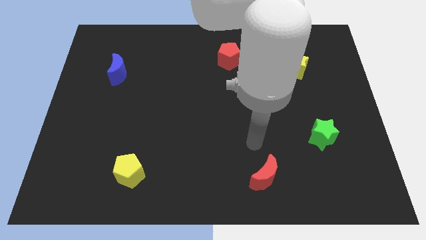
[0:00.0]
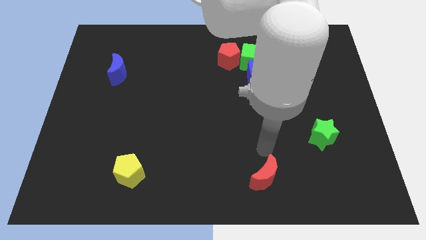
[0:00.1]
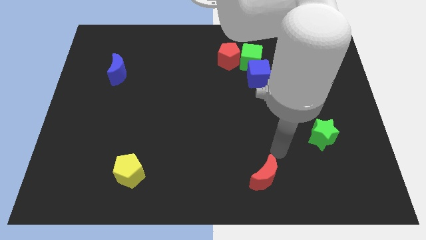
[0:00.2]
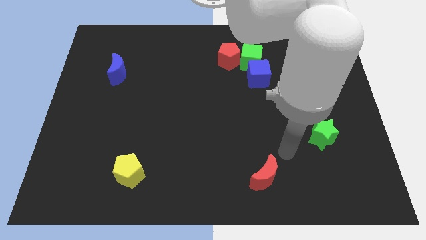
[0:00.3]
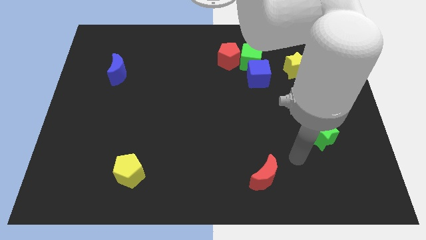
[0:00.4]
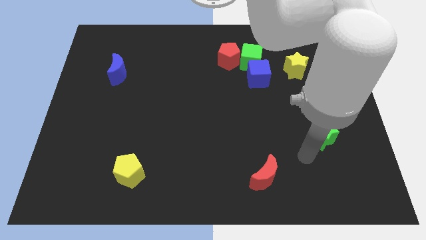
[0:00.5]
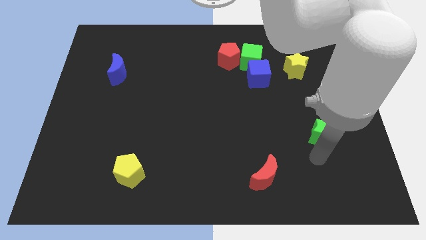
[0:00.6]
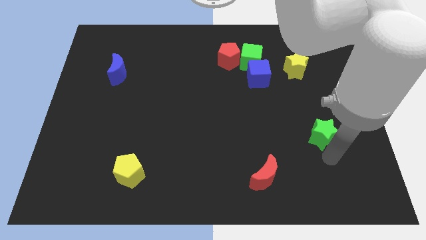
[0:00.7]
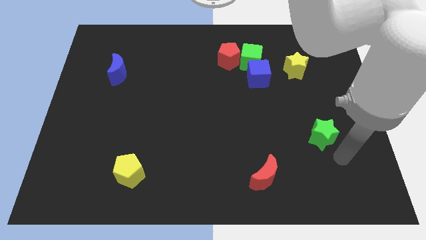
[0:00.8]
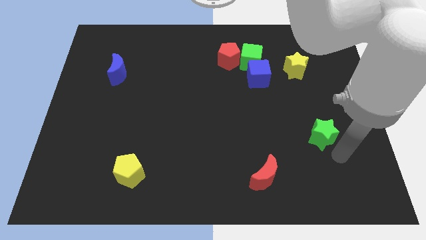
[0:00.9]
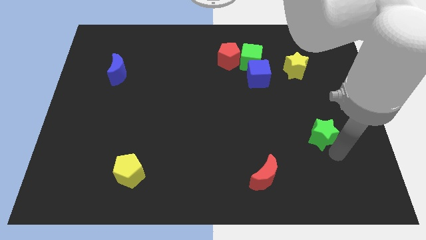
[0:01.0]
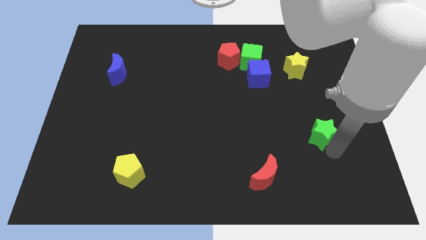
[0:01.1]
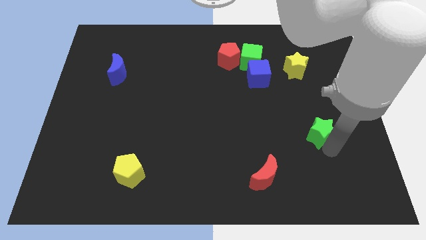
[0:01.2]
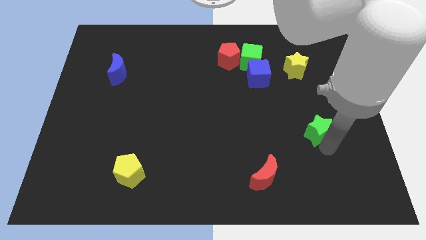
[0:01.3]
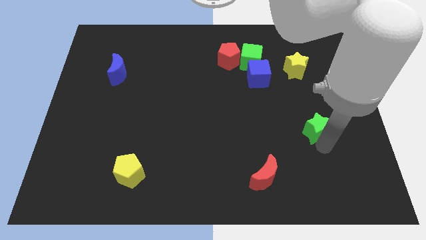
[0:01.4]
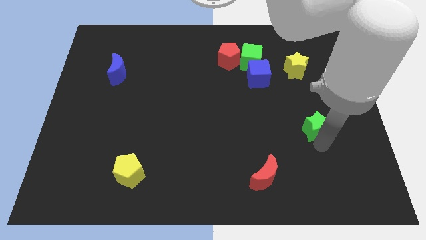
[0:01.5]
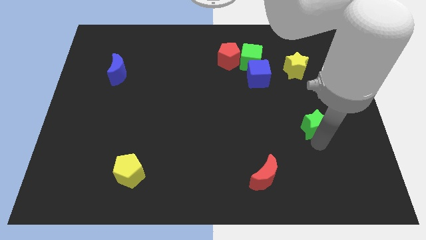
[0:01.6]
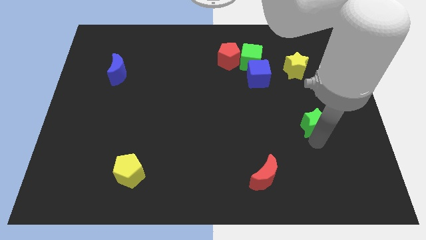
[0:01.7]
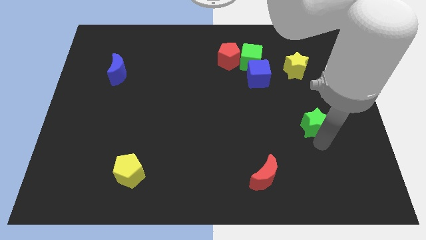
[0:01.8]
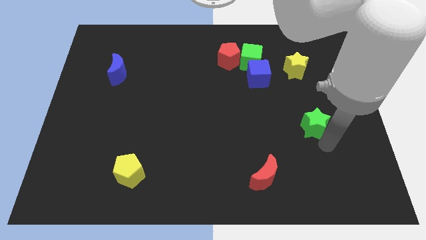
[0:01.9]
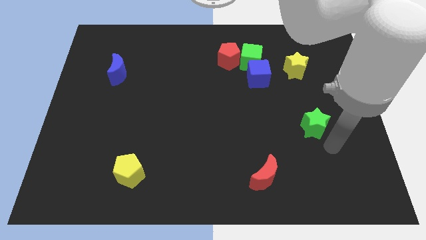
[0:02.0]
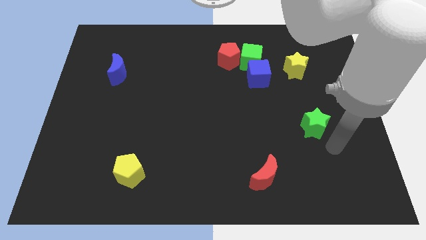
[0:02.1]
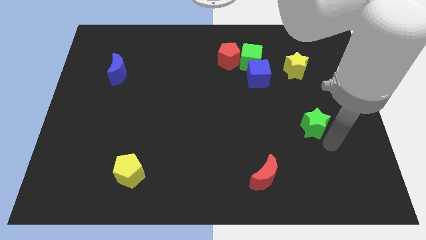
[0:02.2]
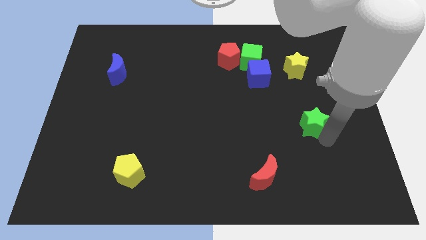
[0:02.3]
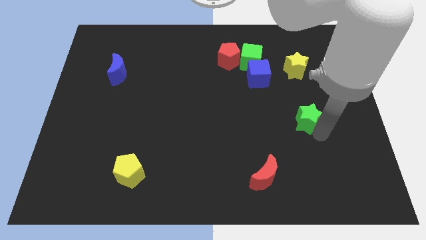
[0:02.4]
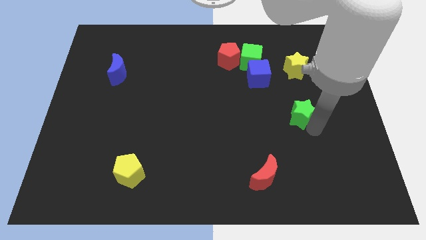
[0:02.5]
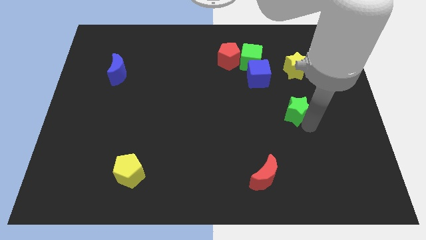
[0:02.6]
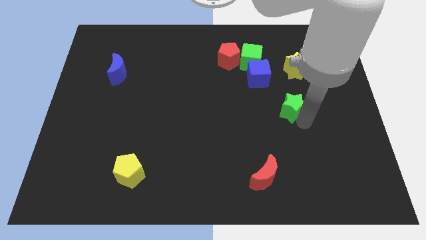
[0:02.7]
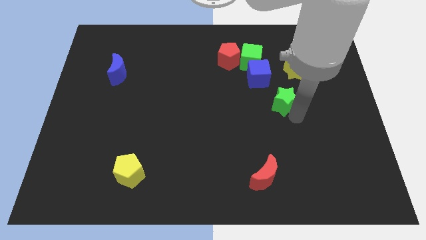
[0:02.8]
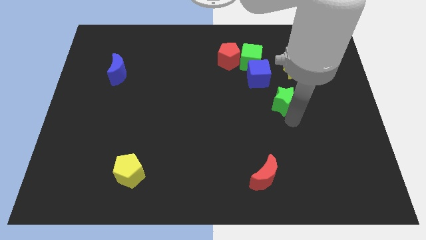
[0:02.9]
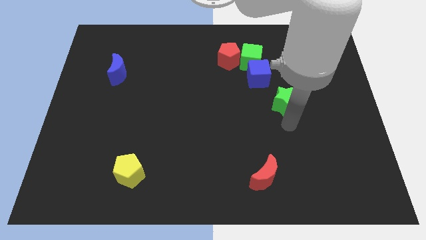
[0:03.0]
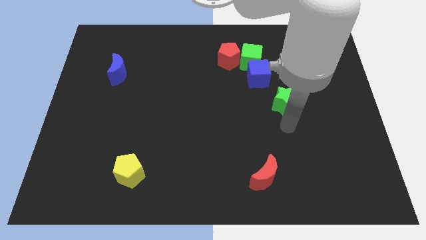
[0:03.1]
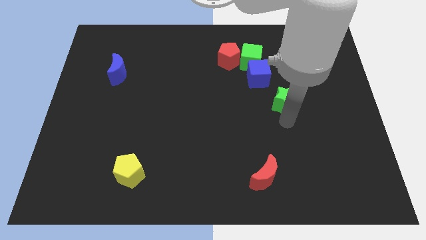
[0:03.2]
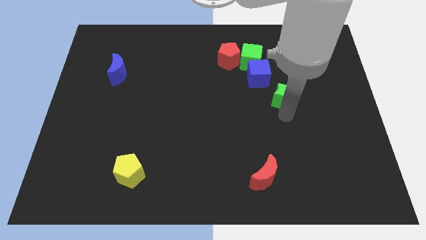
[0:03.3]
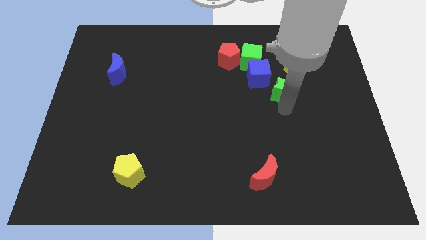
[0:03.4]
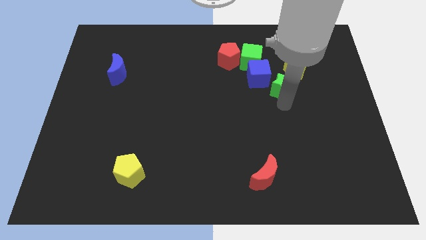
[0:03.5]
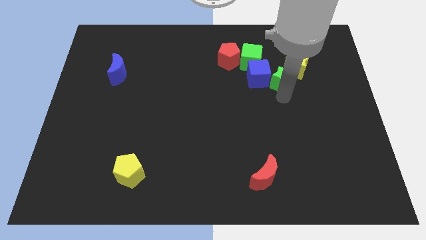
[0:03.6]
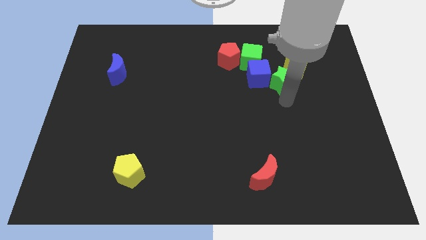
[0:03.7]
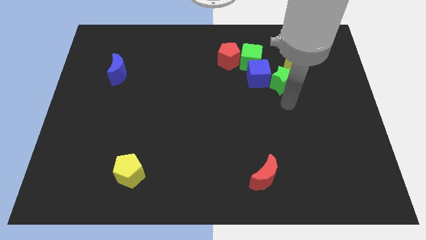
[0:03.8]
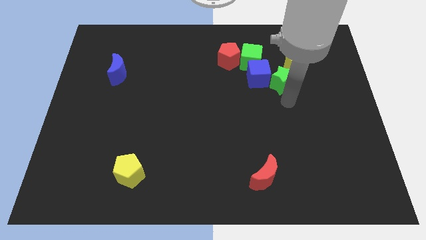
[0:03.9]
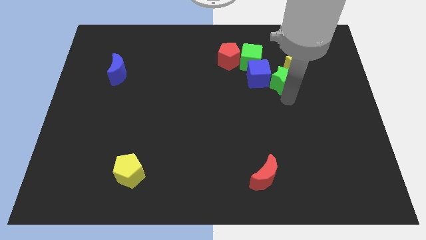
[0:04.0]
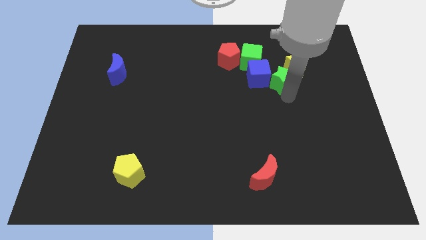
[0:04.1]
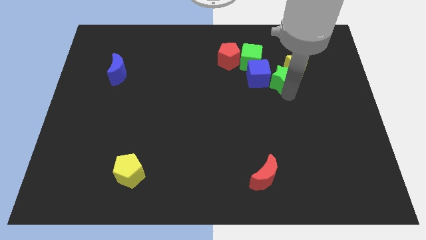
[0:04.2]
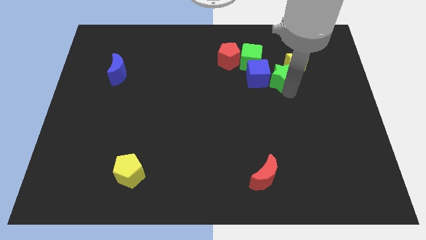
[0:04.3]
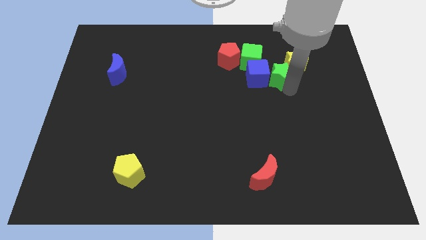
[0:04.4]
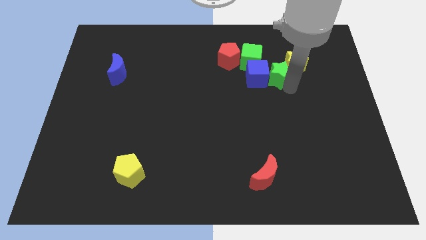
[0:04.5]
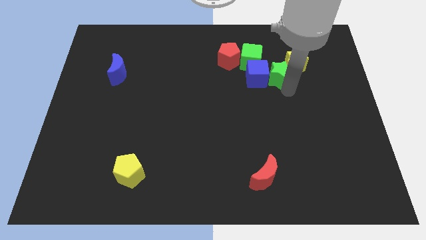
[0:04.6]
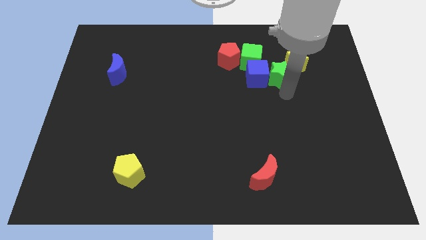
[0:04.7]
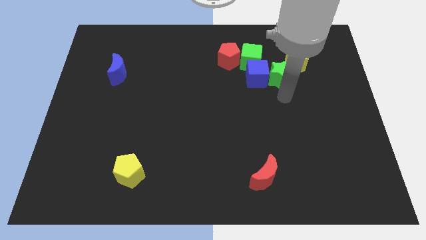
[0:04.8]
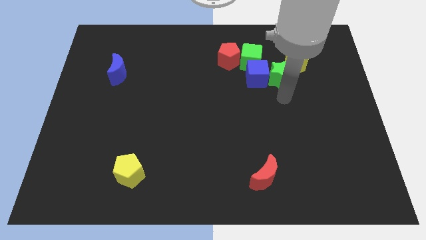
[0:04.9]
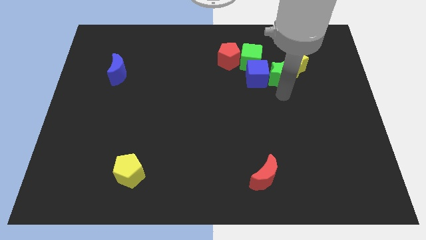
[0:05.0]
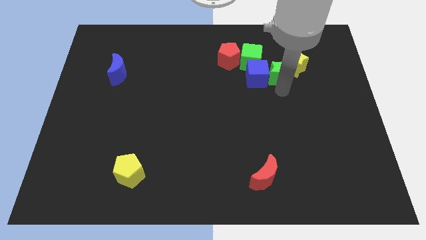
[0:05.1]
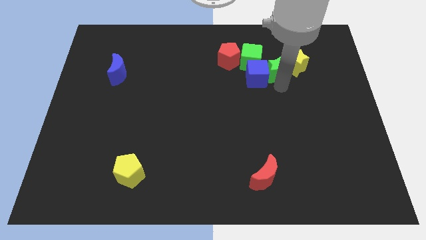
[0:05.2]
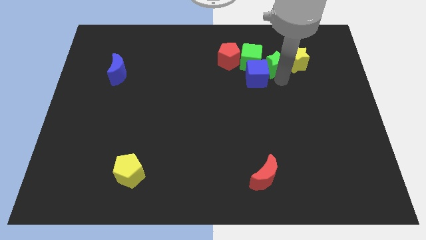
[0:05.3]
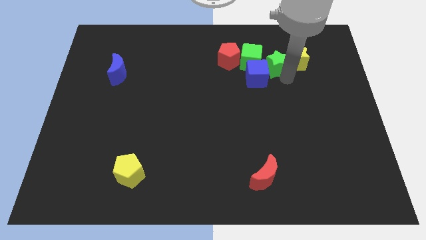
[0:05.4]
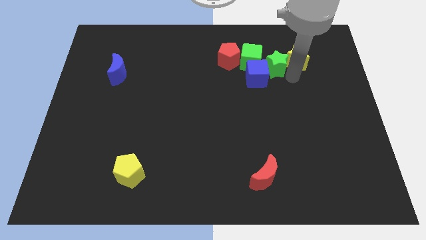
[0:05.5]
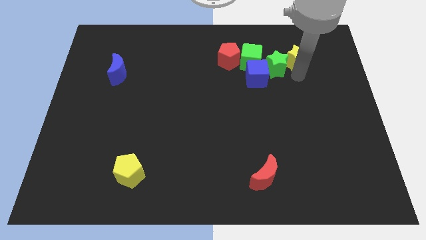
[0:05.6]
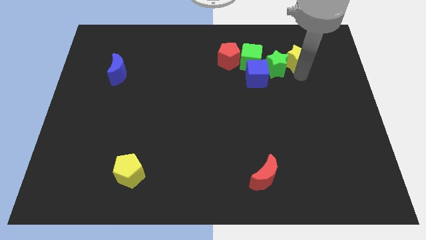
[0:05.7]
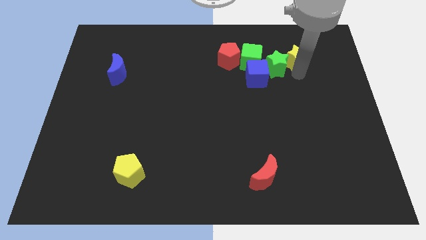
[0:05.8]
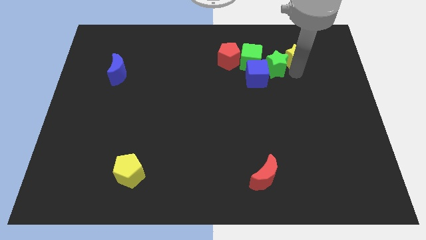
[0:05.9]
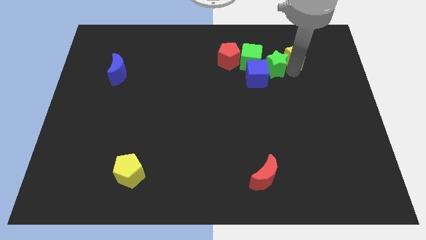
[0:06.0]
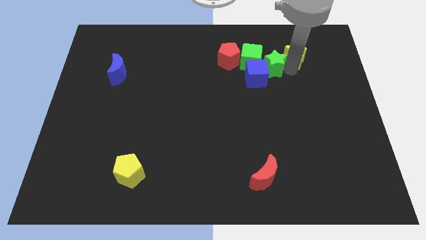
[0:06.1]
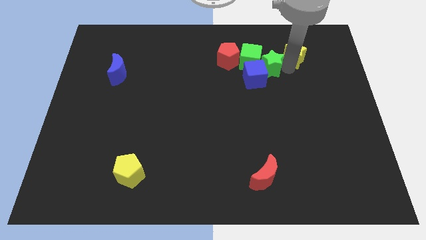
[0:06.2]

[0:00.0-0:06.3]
push the green star towards the green cube

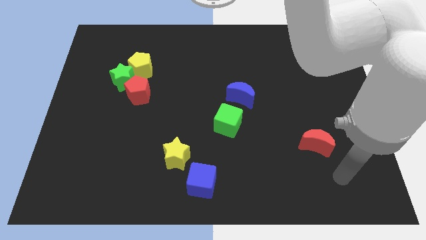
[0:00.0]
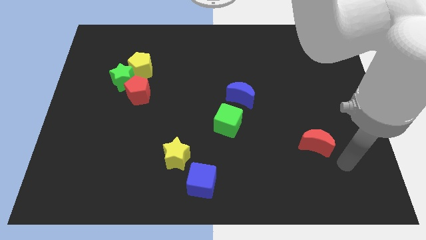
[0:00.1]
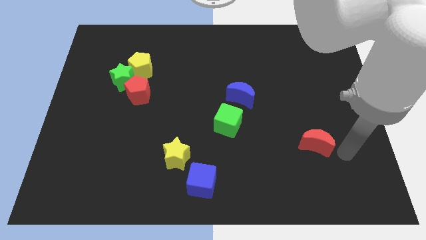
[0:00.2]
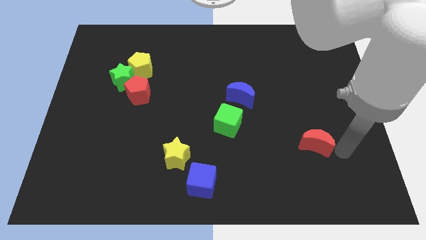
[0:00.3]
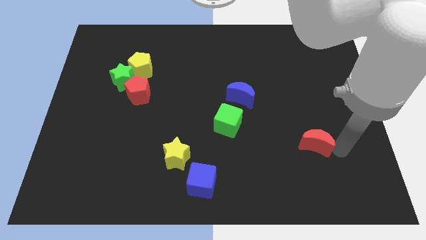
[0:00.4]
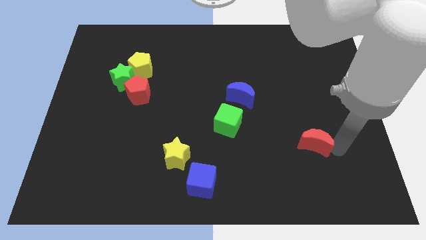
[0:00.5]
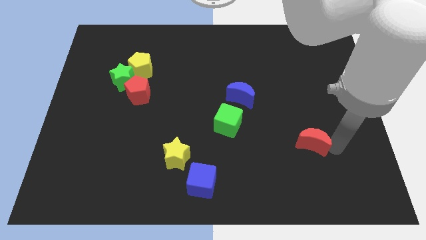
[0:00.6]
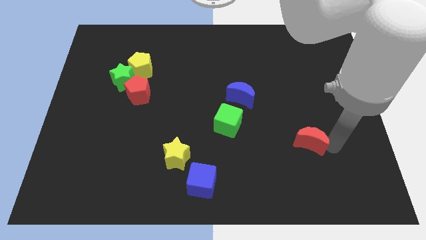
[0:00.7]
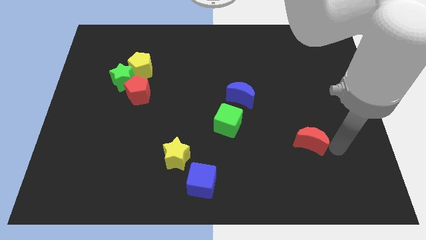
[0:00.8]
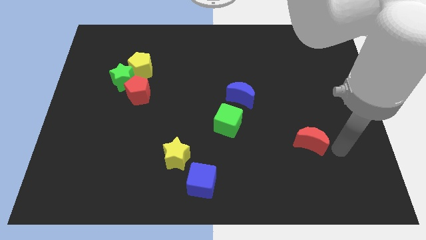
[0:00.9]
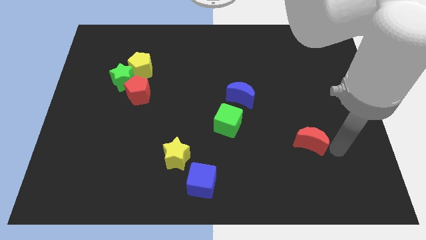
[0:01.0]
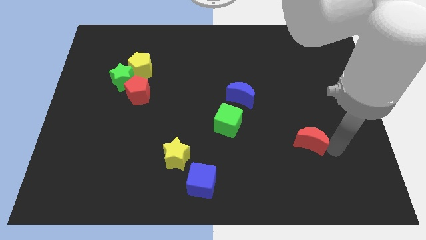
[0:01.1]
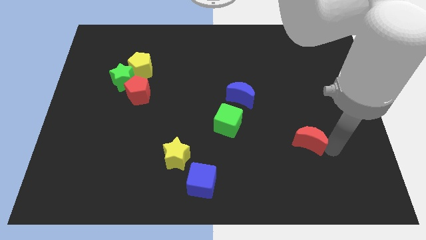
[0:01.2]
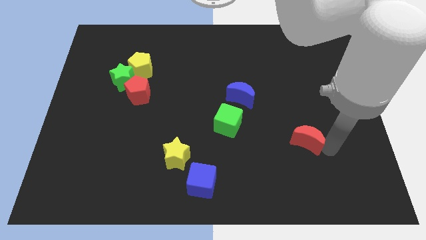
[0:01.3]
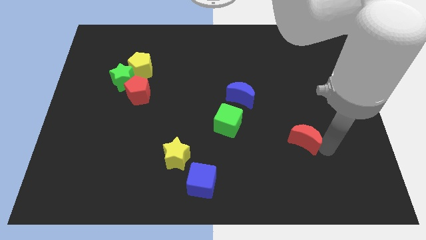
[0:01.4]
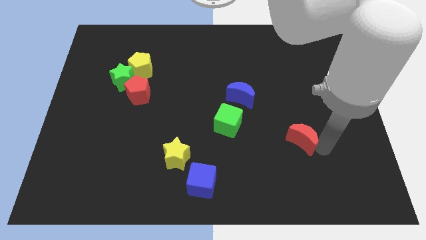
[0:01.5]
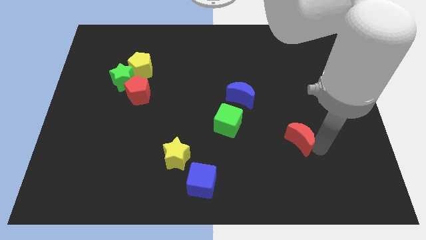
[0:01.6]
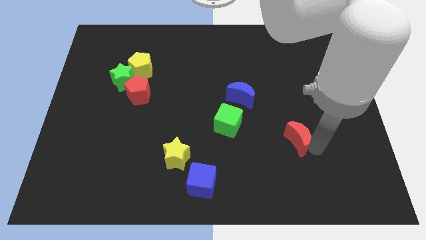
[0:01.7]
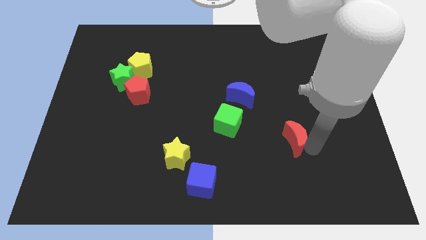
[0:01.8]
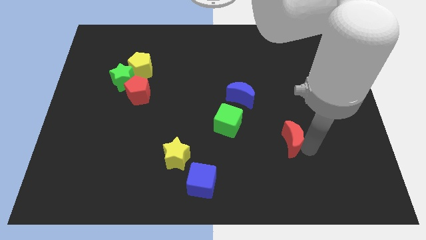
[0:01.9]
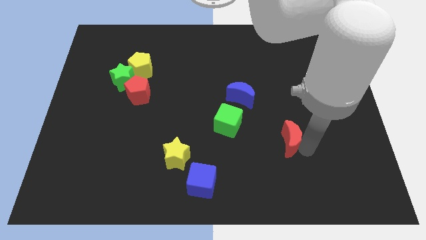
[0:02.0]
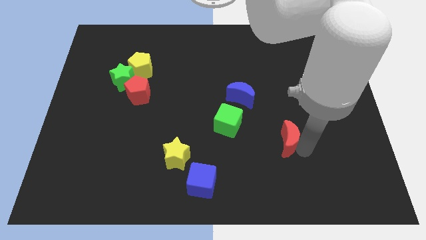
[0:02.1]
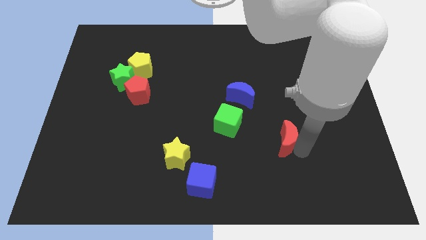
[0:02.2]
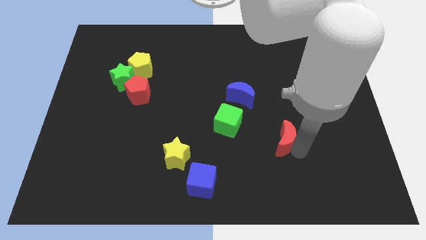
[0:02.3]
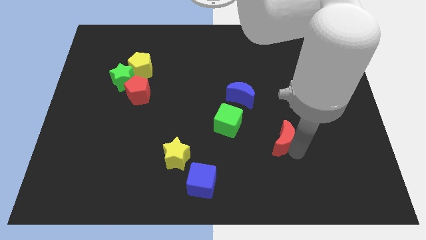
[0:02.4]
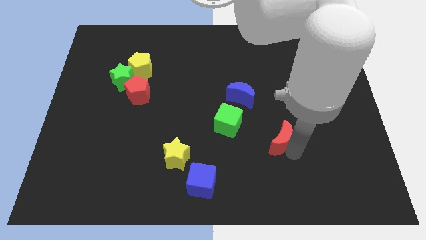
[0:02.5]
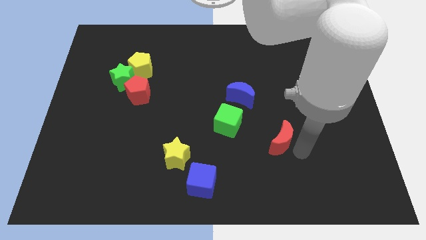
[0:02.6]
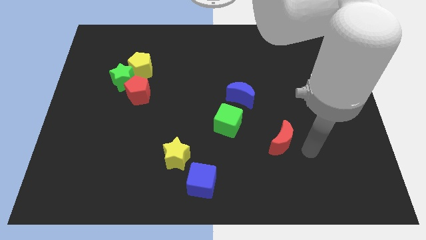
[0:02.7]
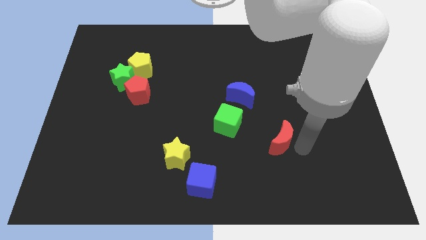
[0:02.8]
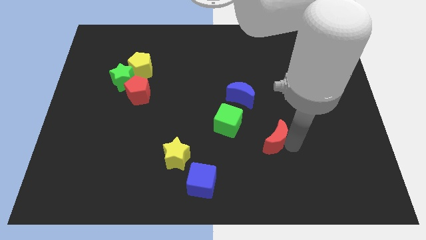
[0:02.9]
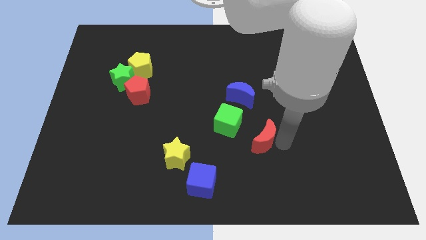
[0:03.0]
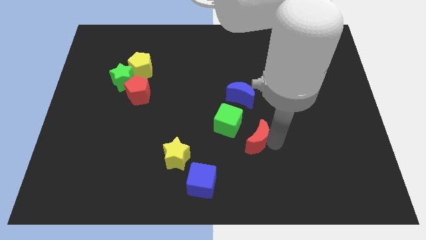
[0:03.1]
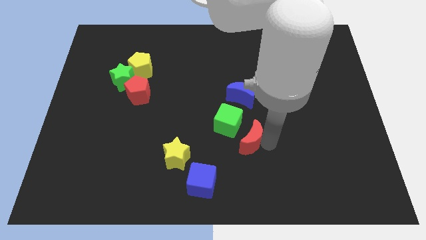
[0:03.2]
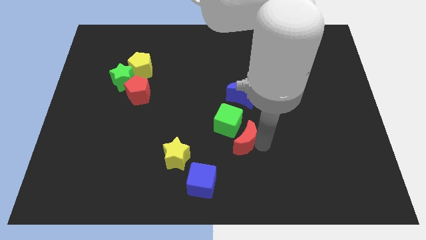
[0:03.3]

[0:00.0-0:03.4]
put the red moon next to the green cube
